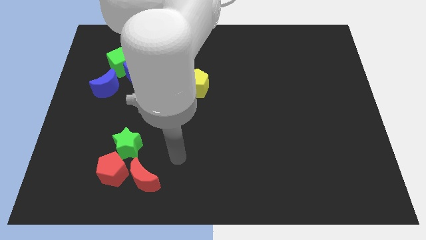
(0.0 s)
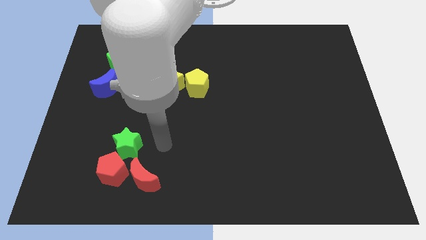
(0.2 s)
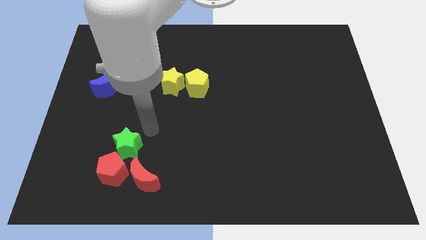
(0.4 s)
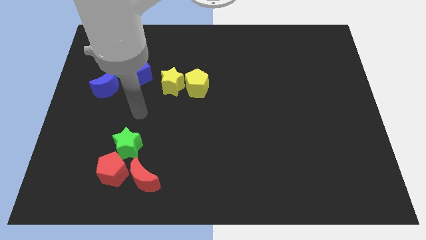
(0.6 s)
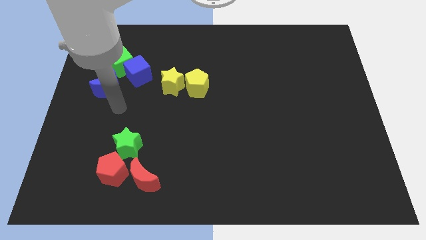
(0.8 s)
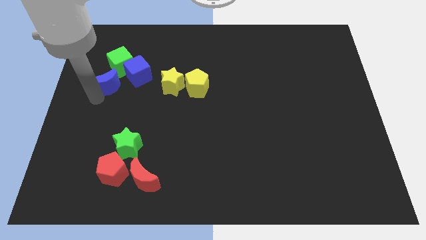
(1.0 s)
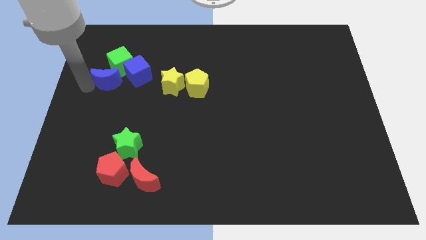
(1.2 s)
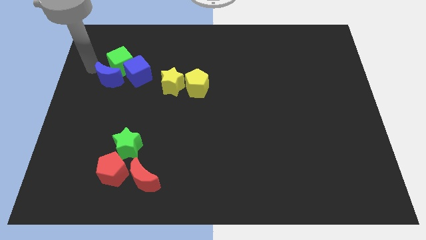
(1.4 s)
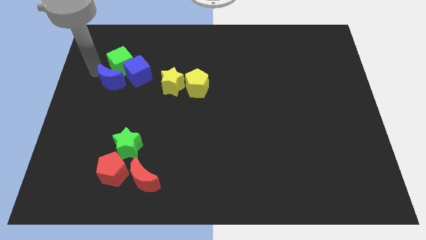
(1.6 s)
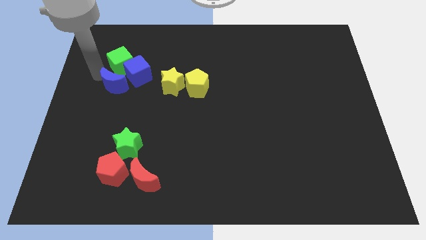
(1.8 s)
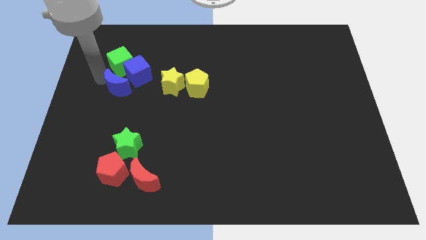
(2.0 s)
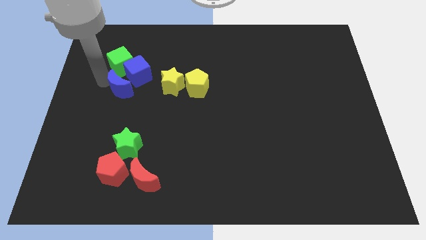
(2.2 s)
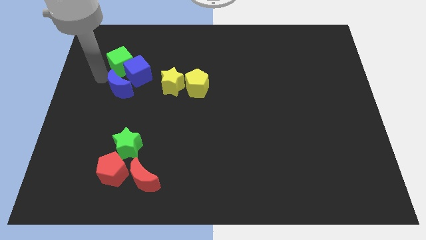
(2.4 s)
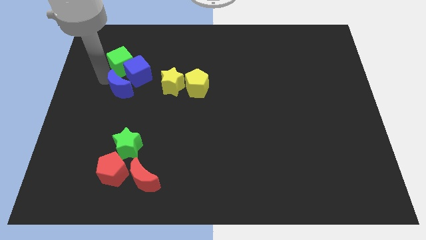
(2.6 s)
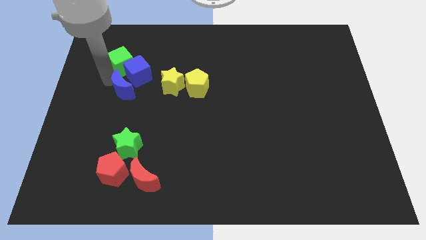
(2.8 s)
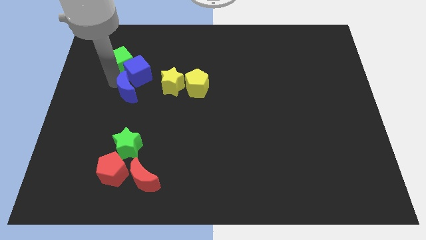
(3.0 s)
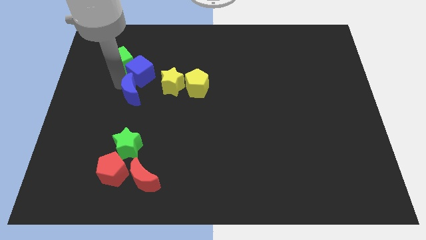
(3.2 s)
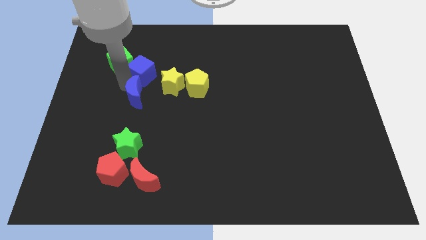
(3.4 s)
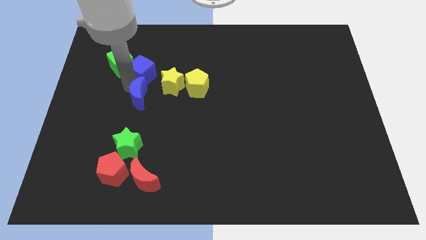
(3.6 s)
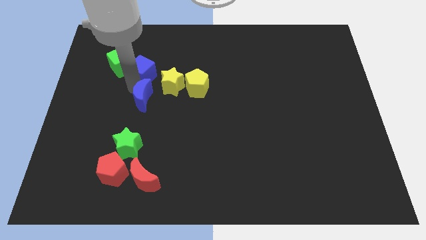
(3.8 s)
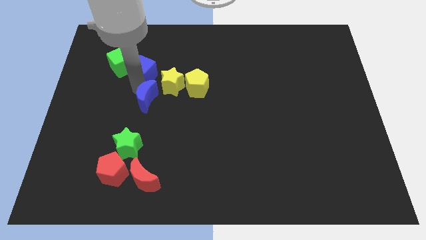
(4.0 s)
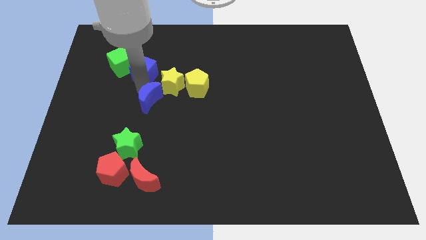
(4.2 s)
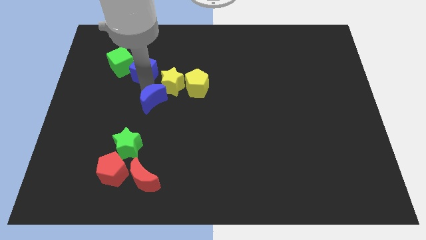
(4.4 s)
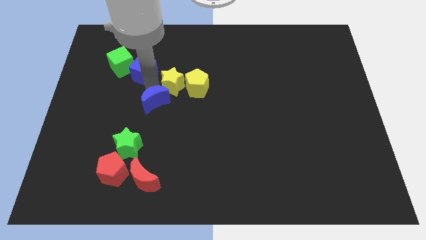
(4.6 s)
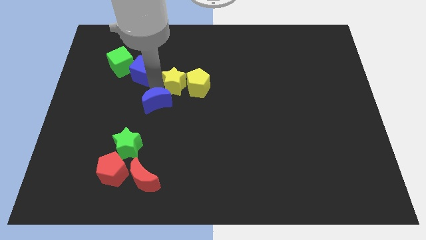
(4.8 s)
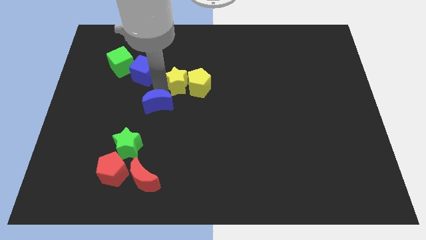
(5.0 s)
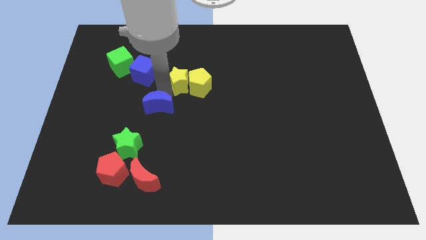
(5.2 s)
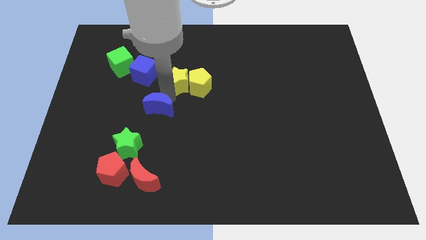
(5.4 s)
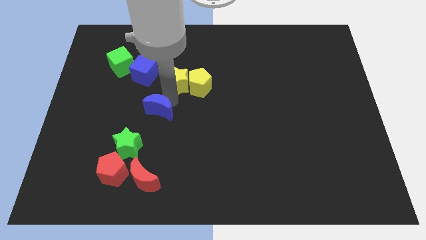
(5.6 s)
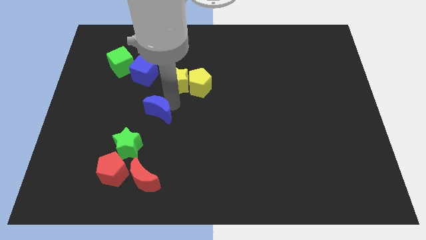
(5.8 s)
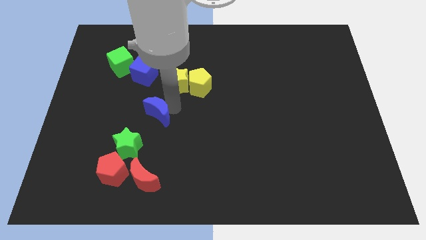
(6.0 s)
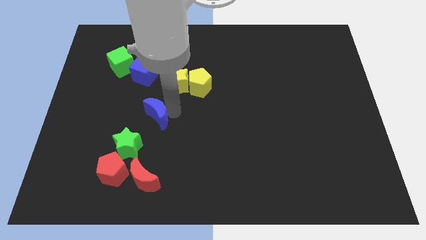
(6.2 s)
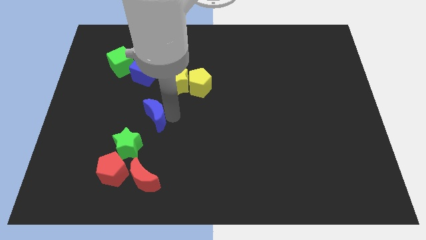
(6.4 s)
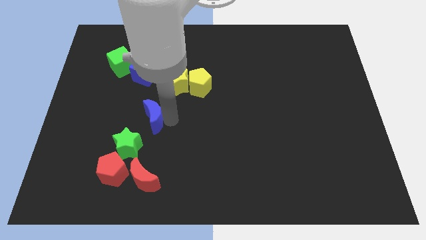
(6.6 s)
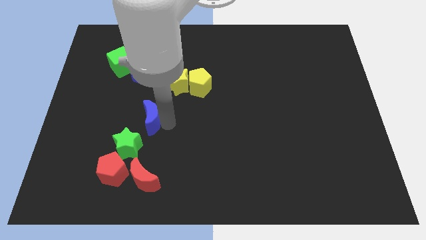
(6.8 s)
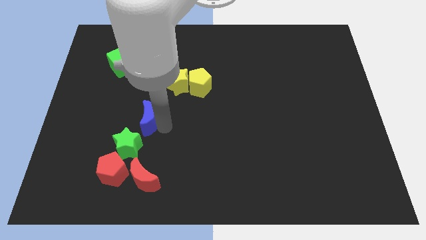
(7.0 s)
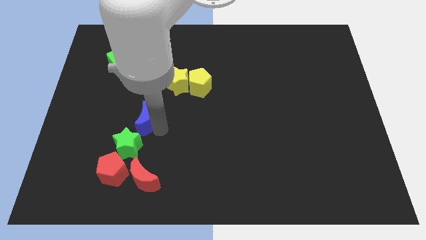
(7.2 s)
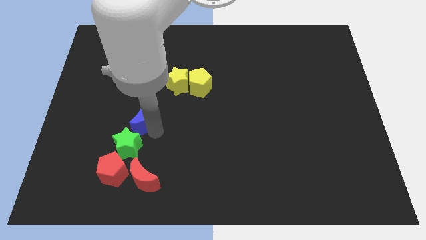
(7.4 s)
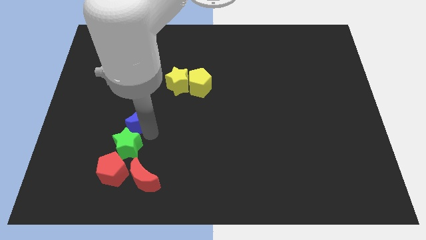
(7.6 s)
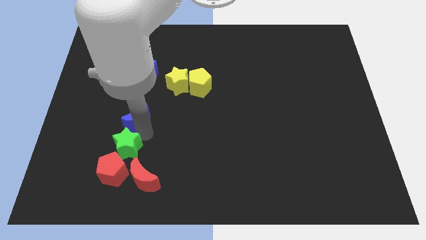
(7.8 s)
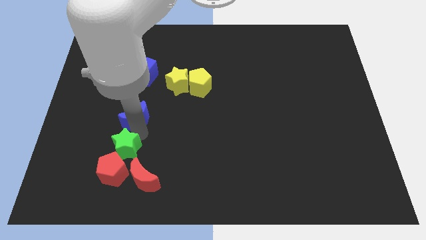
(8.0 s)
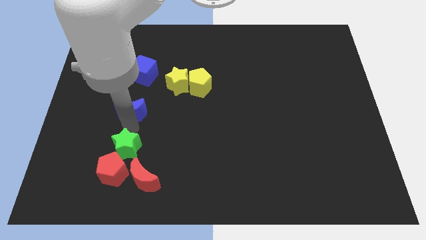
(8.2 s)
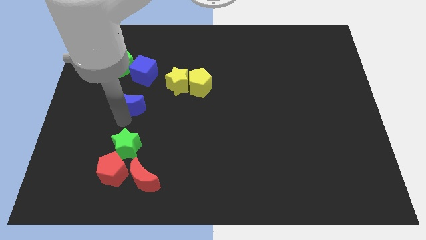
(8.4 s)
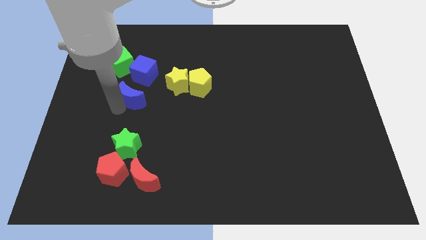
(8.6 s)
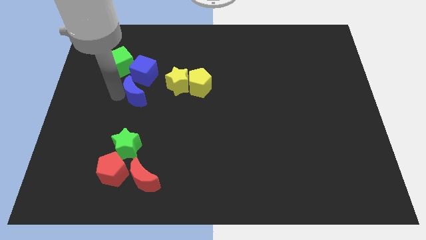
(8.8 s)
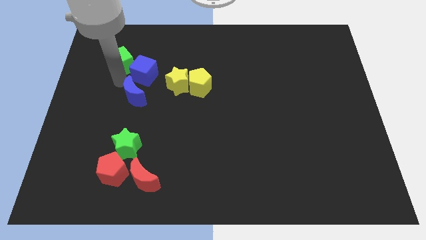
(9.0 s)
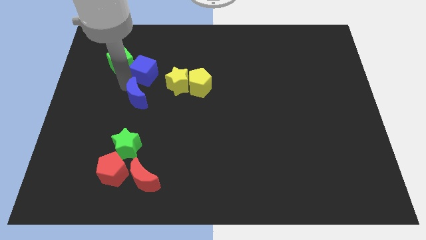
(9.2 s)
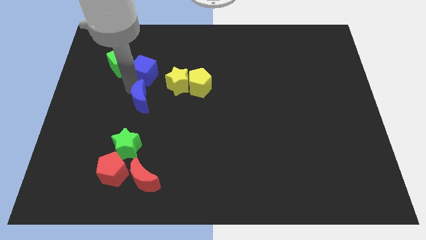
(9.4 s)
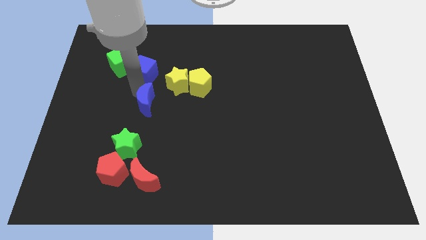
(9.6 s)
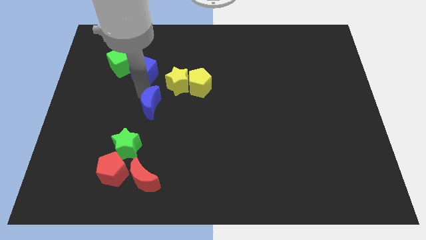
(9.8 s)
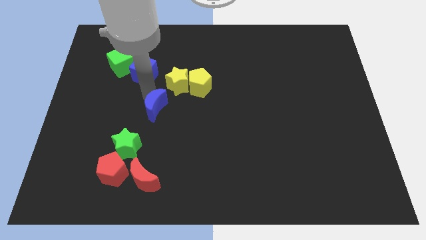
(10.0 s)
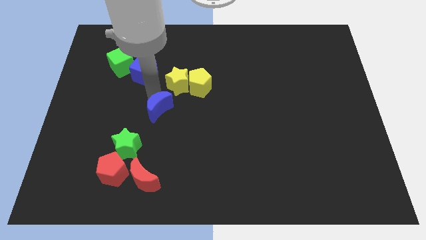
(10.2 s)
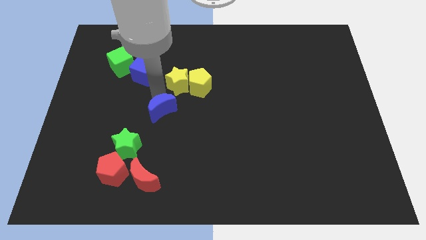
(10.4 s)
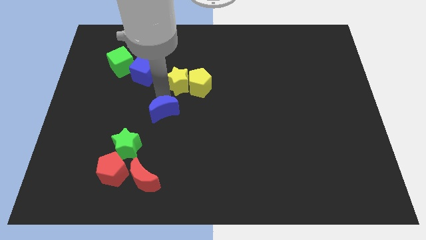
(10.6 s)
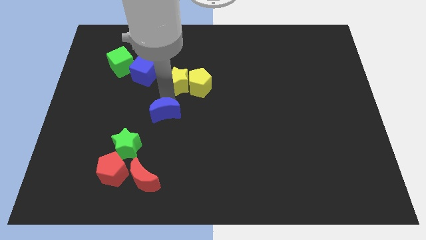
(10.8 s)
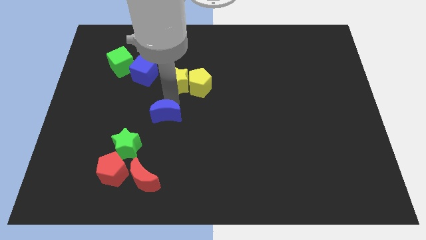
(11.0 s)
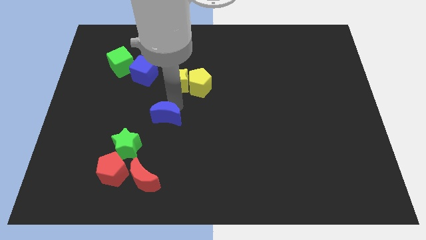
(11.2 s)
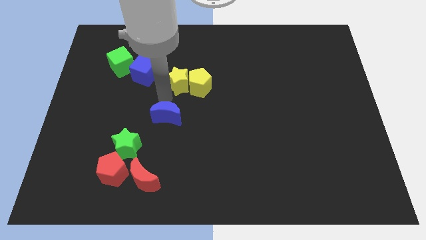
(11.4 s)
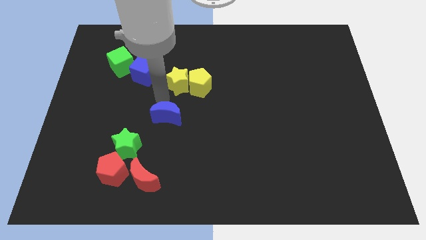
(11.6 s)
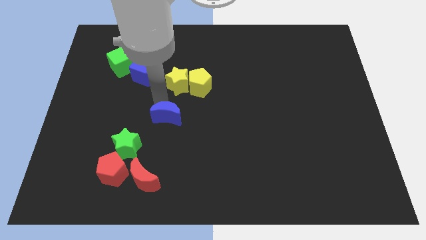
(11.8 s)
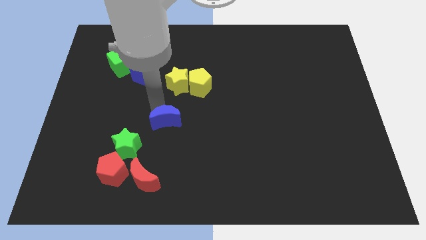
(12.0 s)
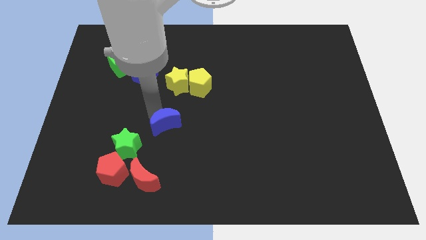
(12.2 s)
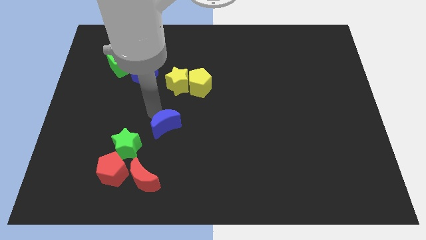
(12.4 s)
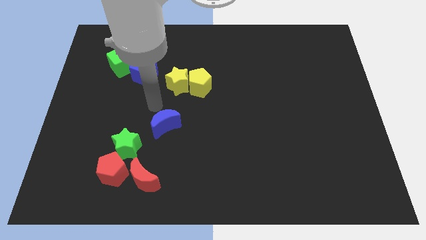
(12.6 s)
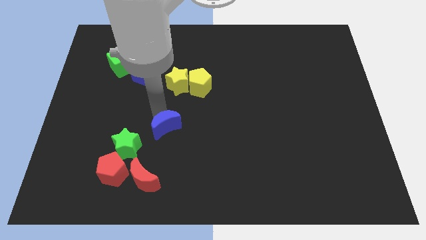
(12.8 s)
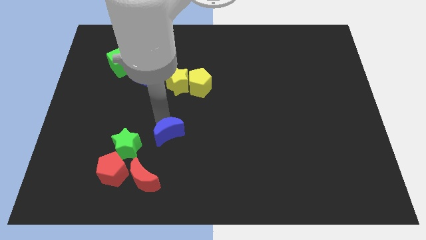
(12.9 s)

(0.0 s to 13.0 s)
put the blue moon to the right side of the green star
